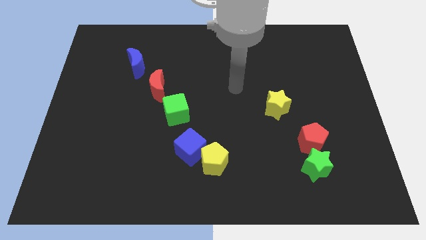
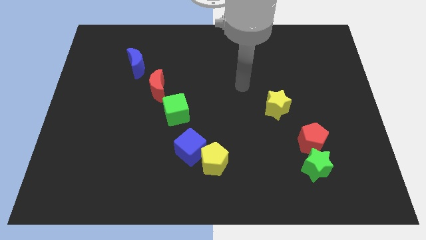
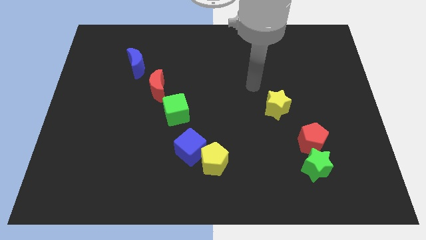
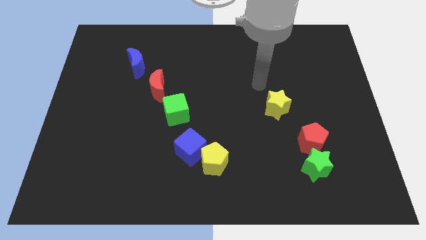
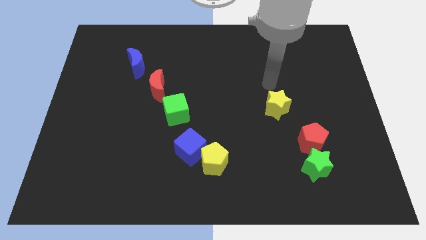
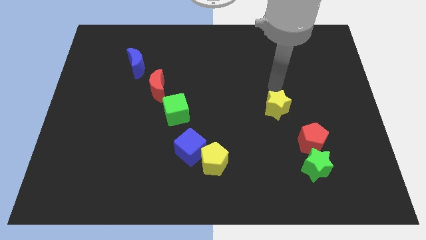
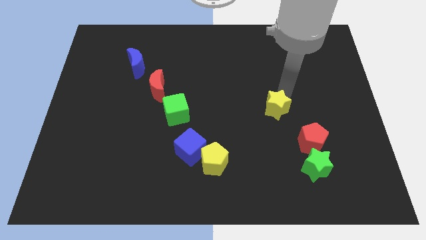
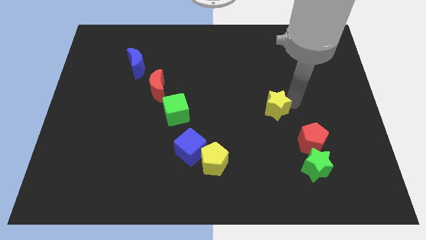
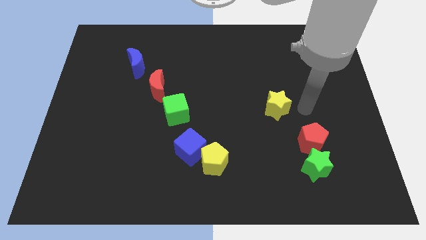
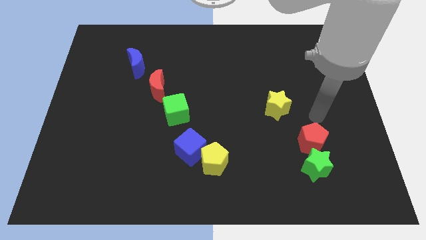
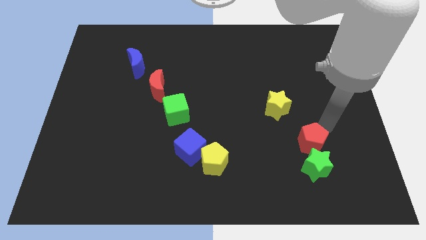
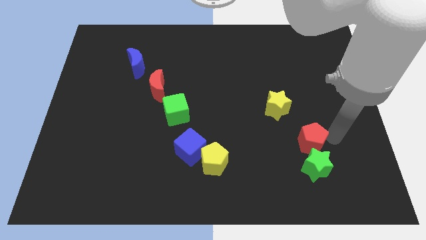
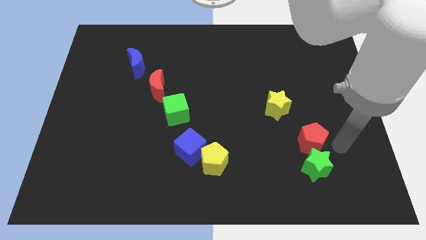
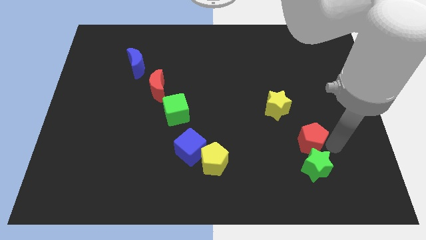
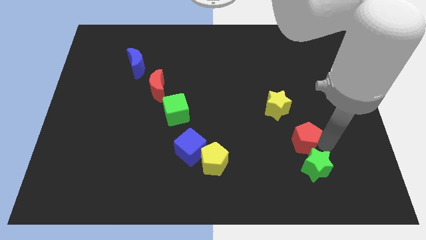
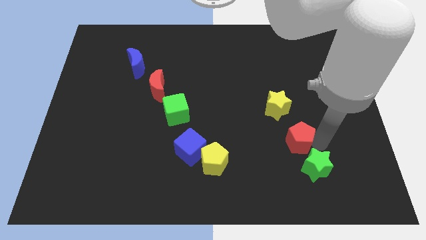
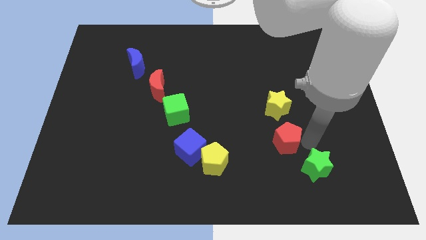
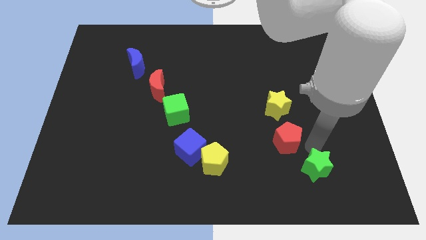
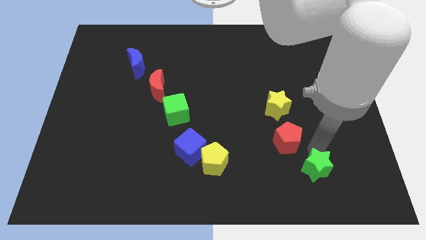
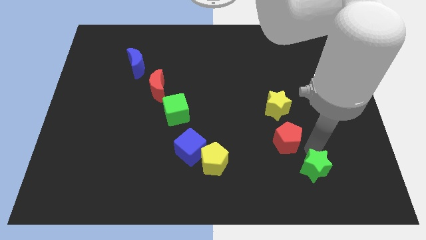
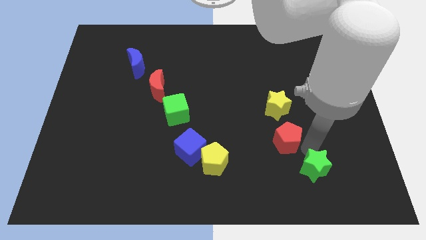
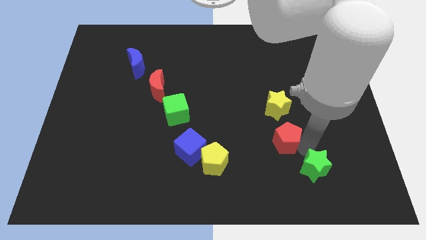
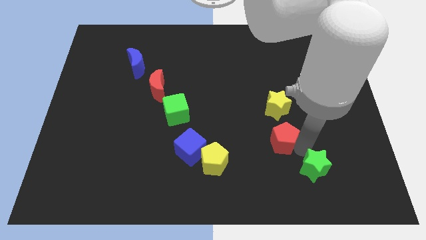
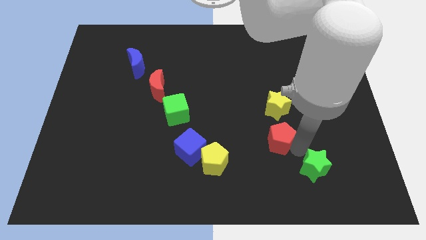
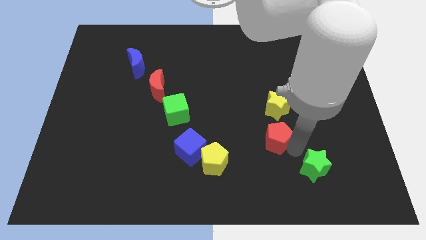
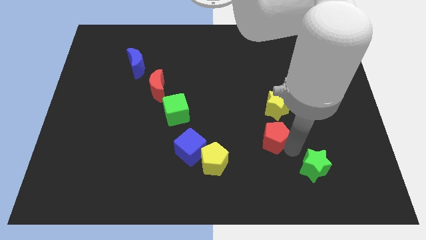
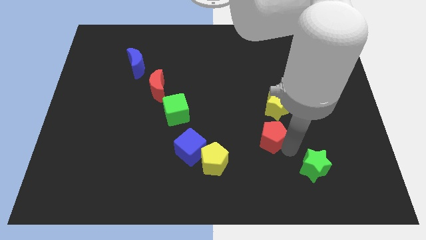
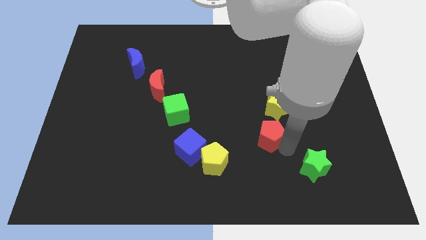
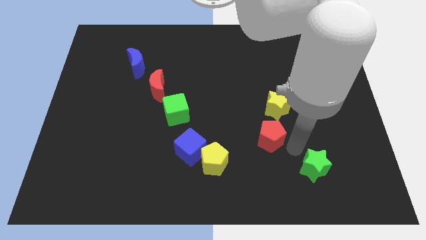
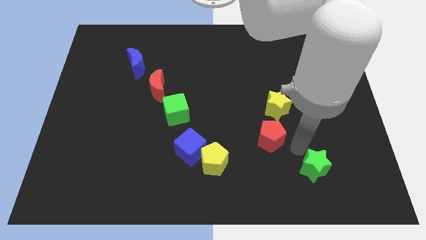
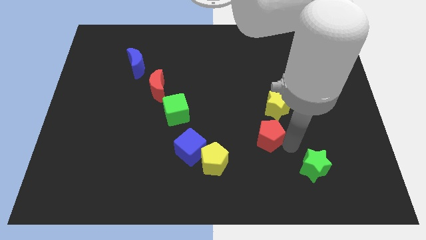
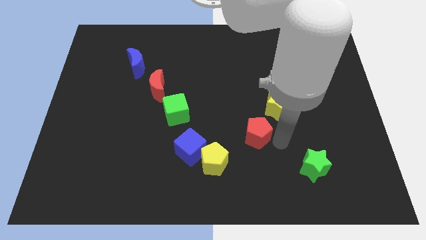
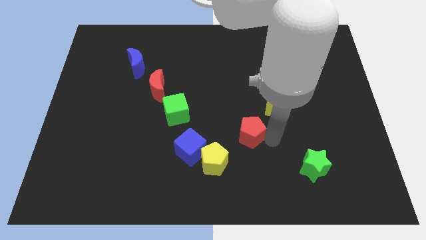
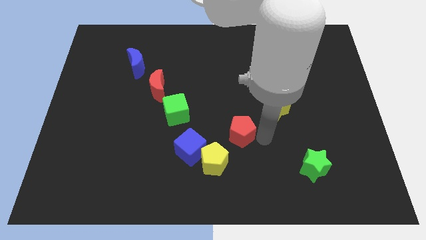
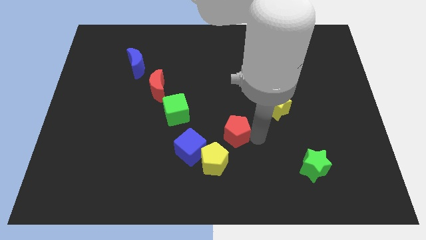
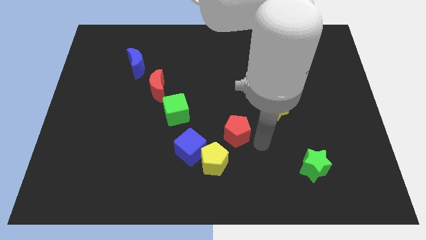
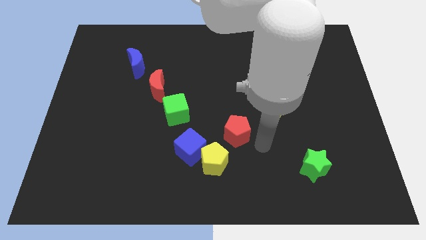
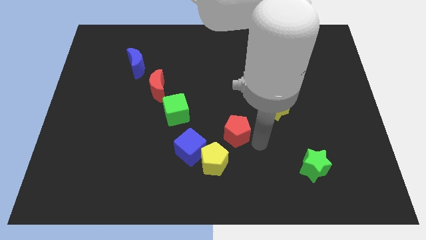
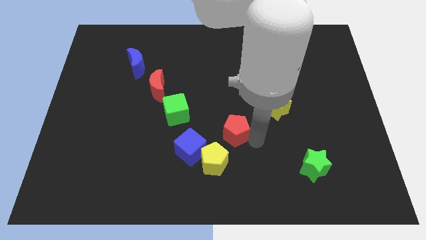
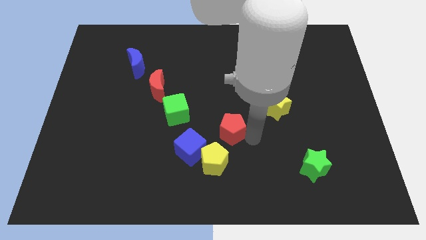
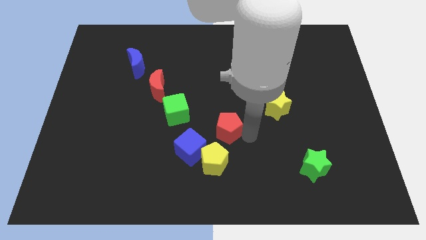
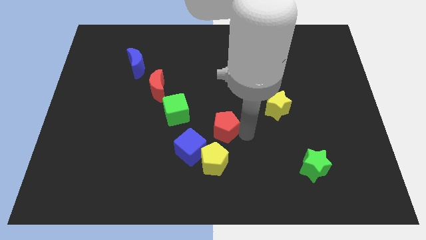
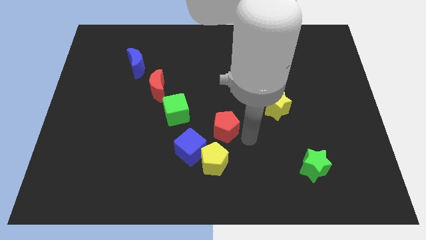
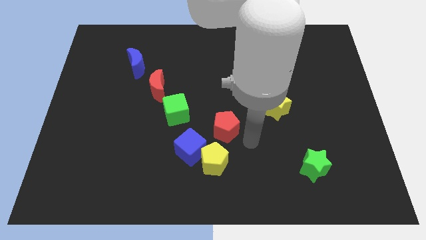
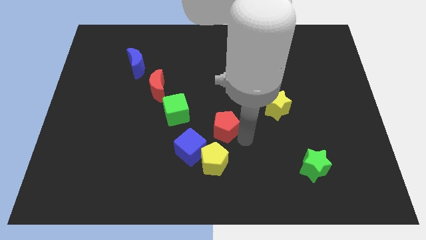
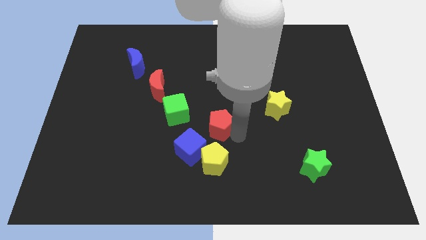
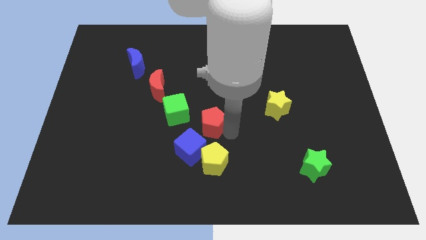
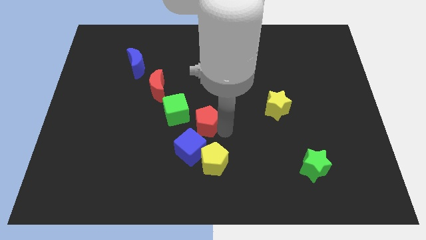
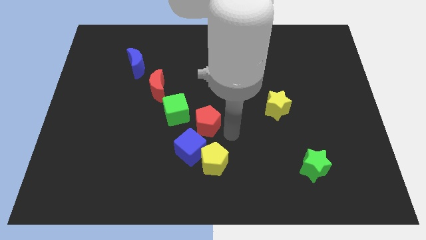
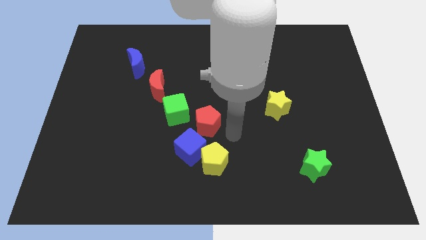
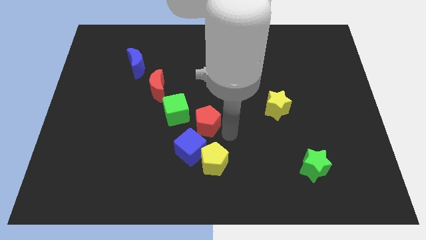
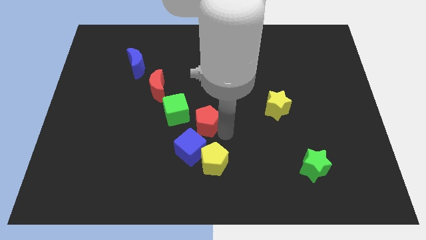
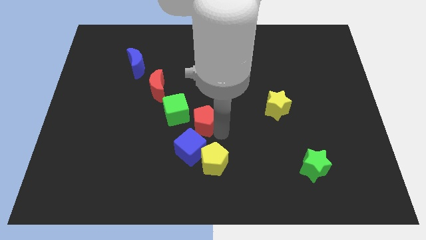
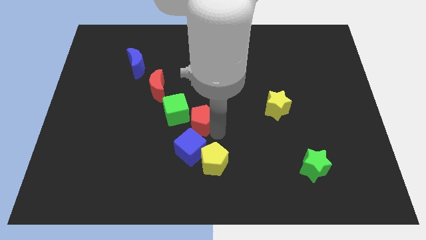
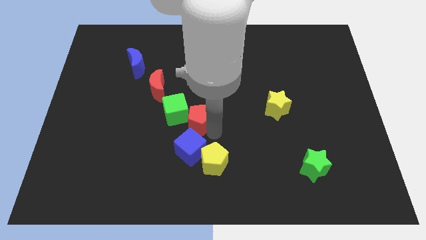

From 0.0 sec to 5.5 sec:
move the red pentagon close to the green cube
